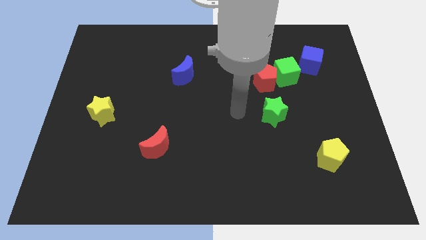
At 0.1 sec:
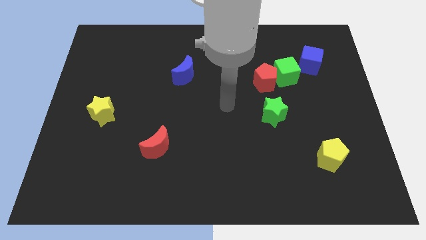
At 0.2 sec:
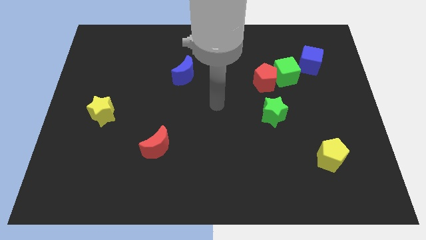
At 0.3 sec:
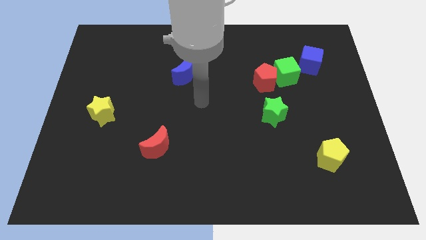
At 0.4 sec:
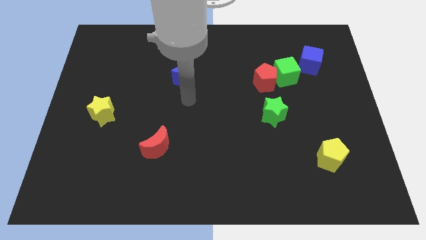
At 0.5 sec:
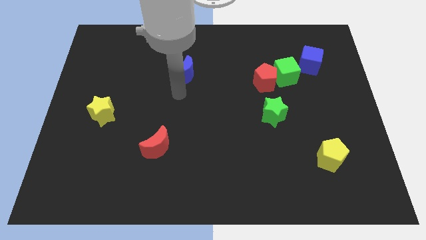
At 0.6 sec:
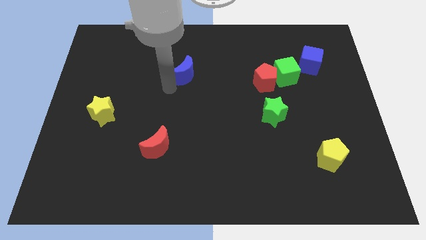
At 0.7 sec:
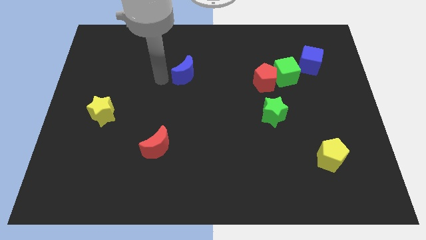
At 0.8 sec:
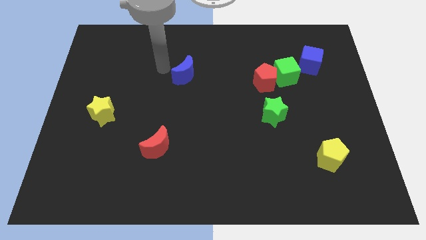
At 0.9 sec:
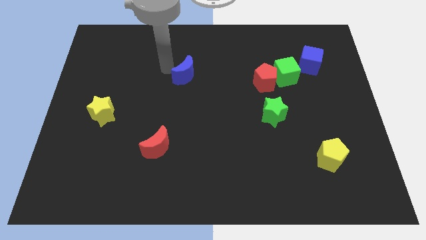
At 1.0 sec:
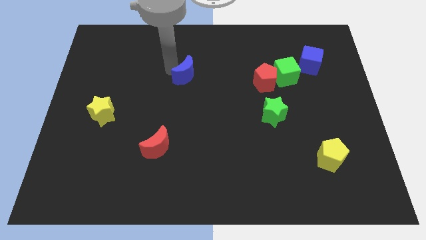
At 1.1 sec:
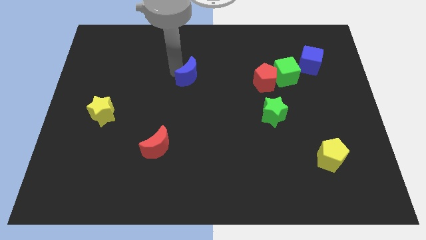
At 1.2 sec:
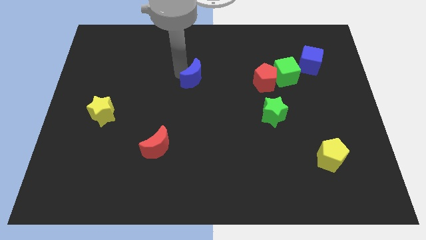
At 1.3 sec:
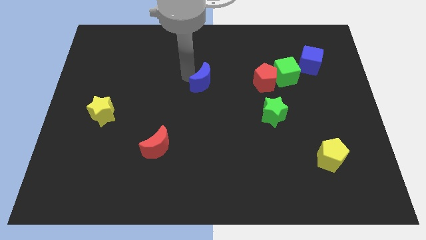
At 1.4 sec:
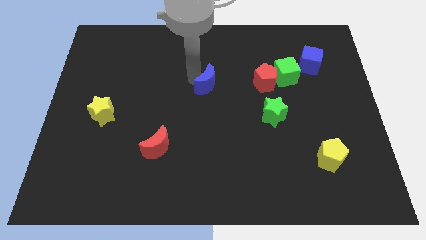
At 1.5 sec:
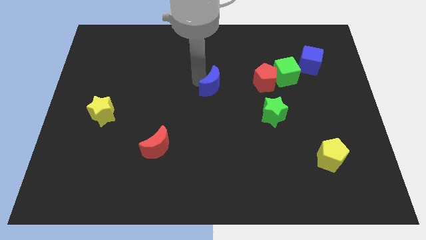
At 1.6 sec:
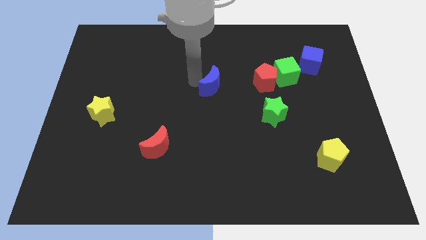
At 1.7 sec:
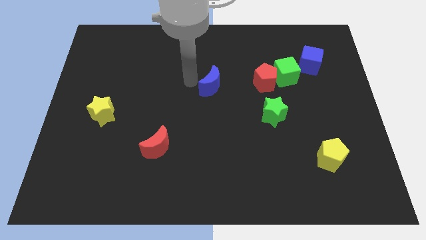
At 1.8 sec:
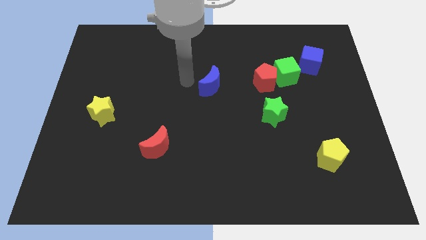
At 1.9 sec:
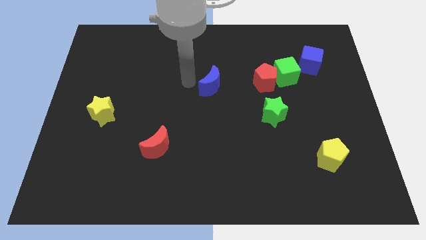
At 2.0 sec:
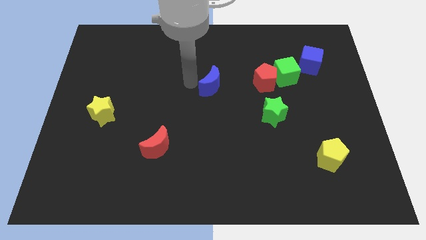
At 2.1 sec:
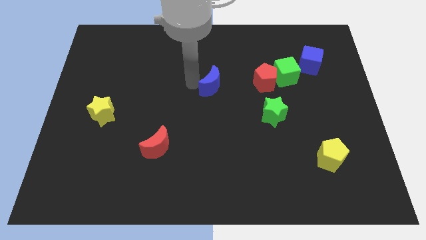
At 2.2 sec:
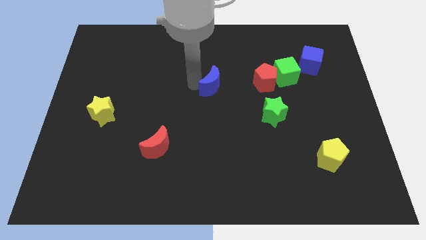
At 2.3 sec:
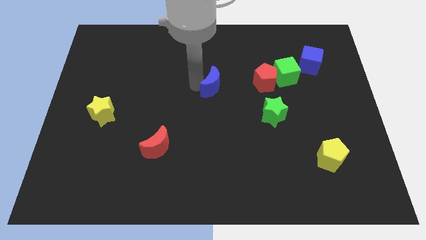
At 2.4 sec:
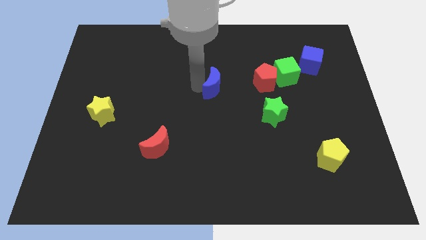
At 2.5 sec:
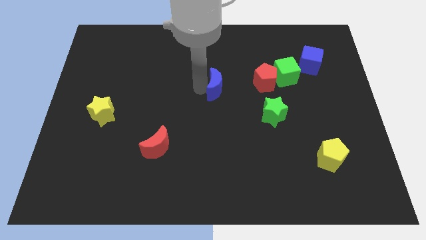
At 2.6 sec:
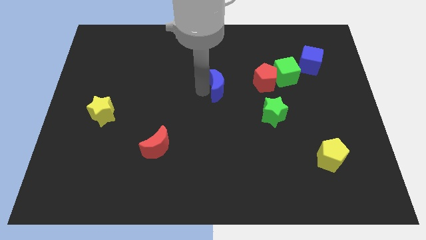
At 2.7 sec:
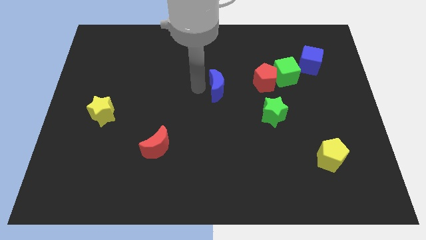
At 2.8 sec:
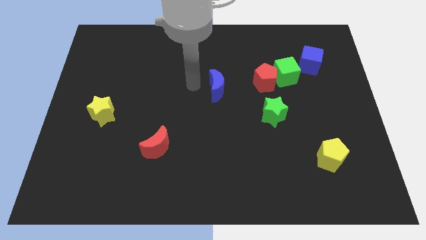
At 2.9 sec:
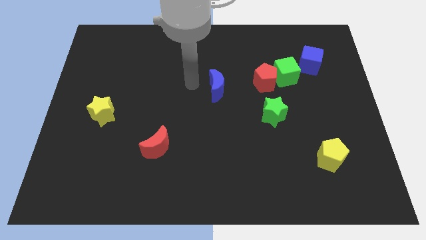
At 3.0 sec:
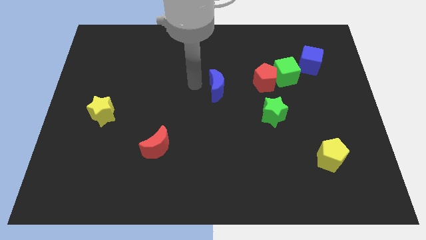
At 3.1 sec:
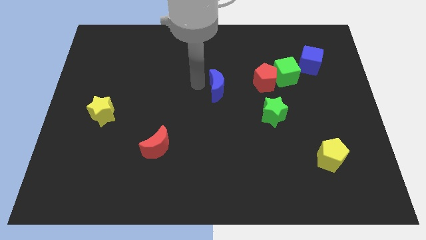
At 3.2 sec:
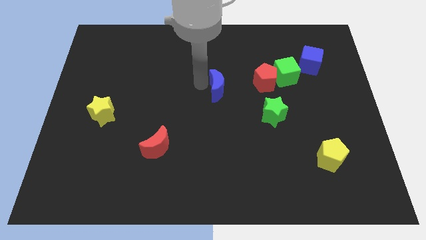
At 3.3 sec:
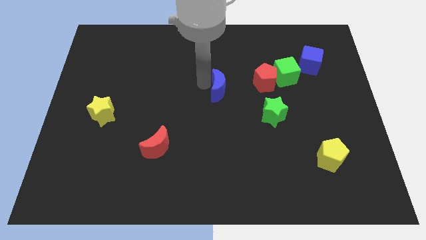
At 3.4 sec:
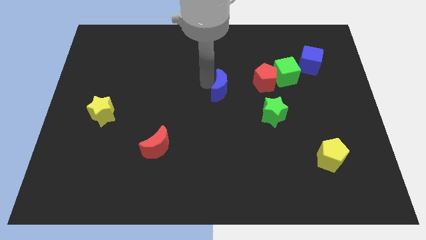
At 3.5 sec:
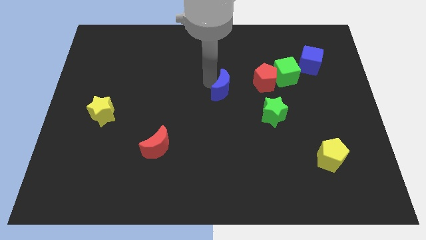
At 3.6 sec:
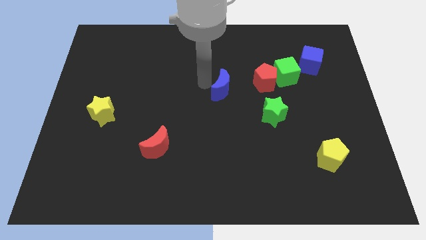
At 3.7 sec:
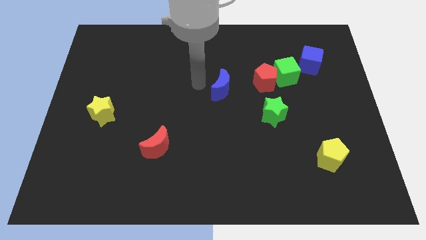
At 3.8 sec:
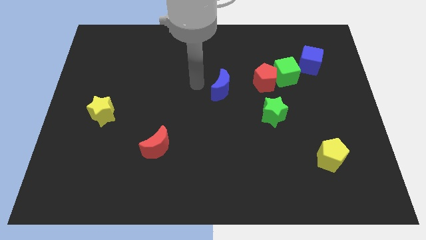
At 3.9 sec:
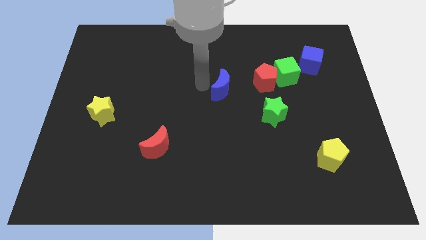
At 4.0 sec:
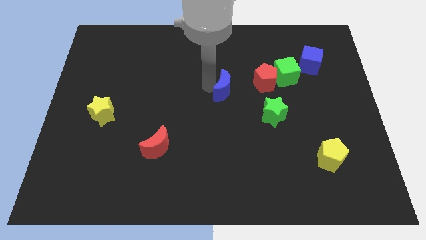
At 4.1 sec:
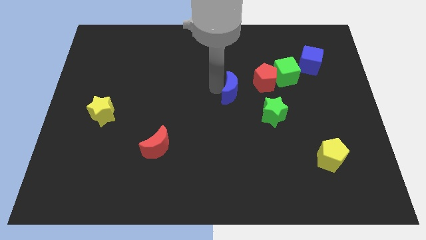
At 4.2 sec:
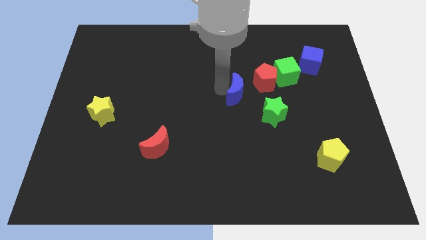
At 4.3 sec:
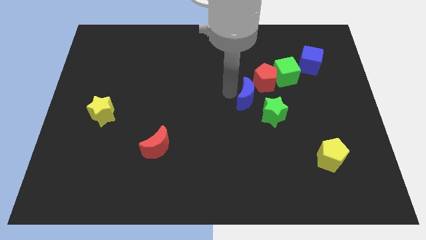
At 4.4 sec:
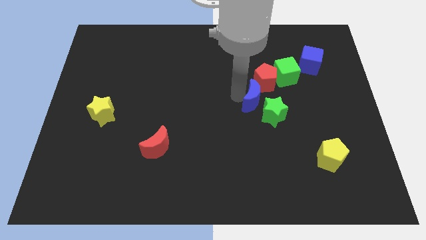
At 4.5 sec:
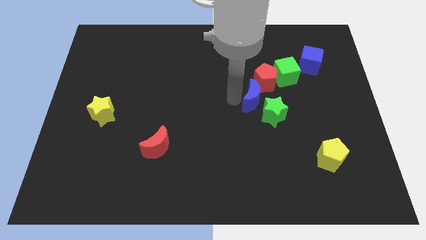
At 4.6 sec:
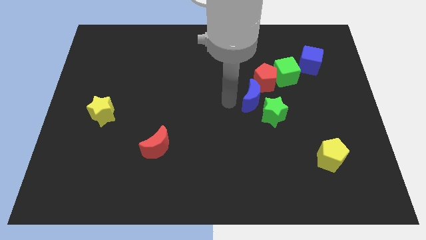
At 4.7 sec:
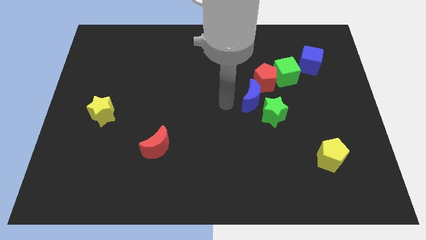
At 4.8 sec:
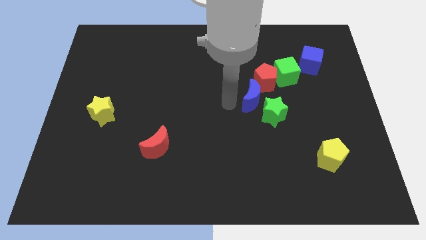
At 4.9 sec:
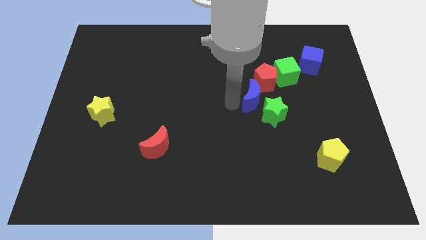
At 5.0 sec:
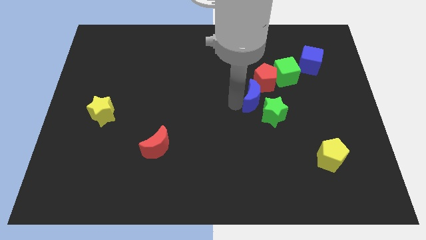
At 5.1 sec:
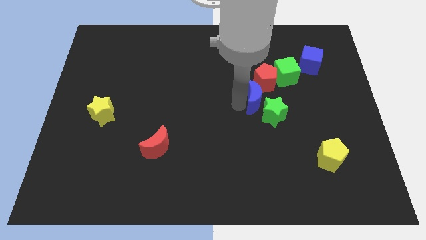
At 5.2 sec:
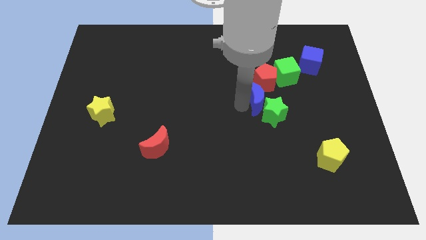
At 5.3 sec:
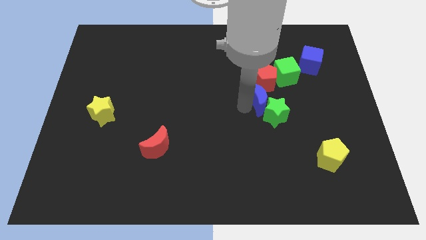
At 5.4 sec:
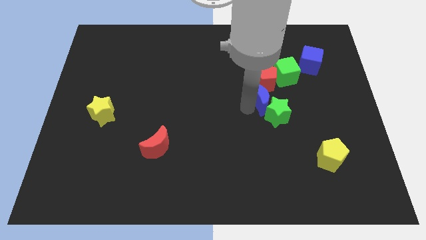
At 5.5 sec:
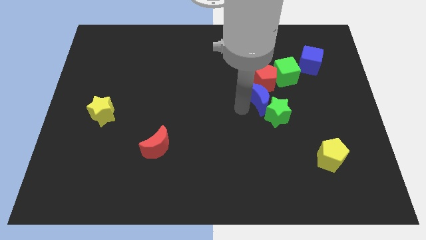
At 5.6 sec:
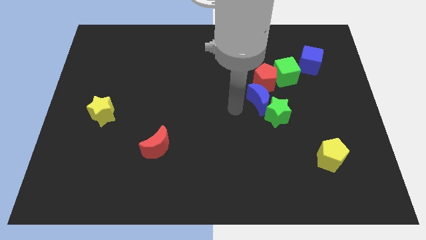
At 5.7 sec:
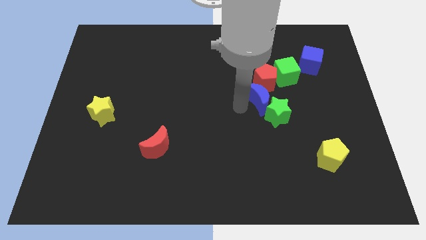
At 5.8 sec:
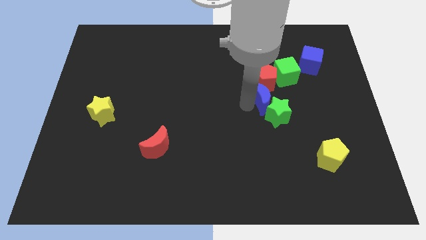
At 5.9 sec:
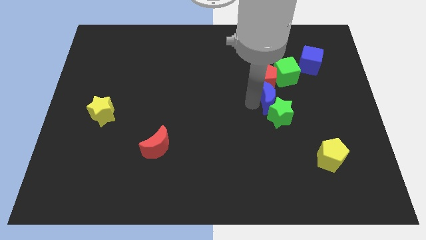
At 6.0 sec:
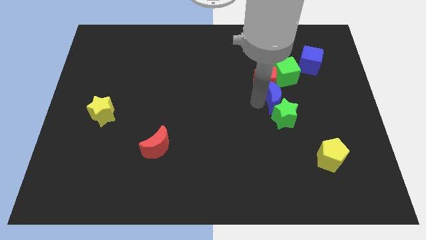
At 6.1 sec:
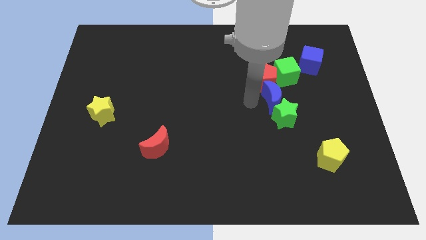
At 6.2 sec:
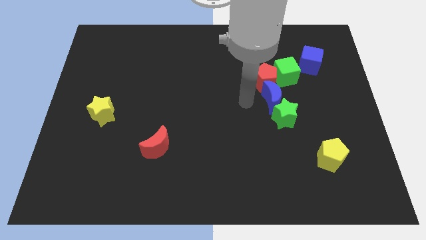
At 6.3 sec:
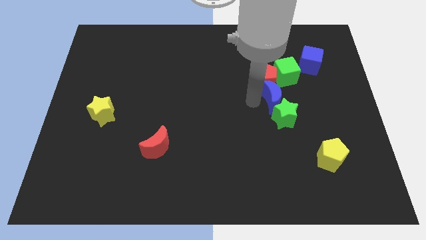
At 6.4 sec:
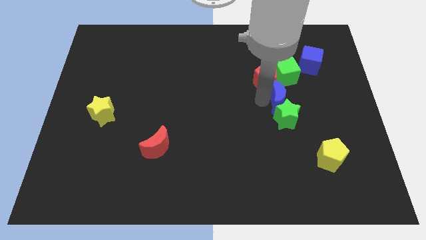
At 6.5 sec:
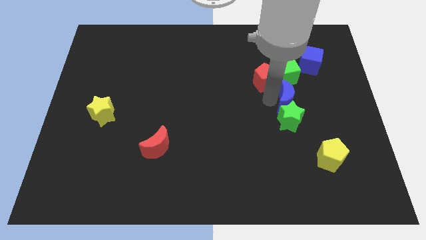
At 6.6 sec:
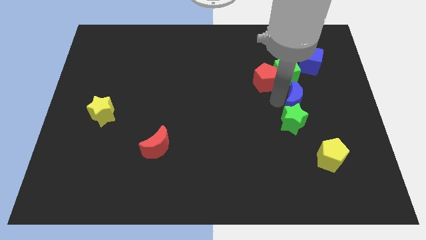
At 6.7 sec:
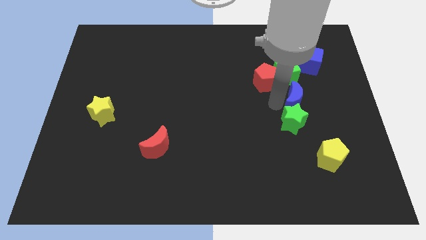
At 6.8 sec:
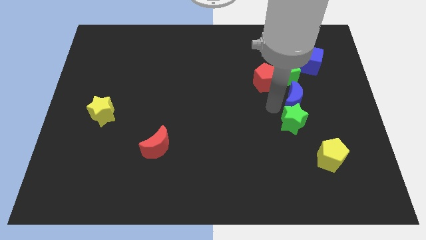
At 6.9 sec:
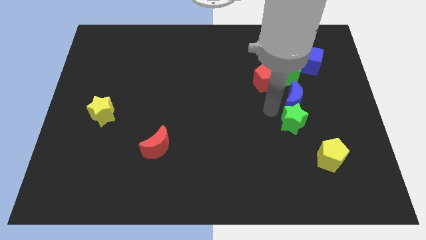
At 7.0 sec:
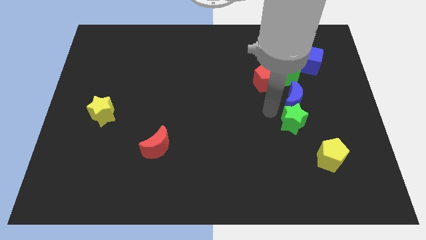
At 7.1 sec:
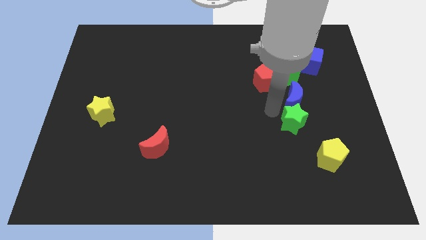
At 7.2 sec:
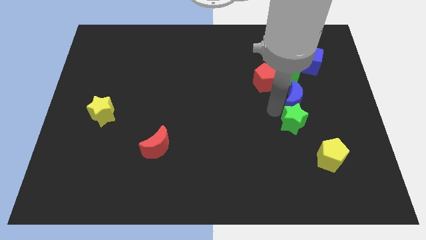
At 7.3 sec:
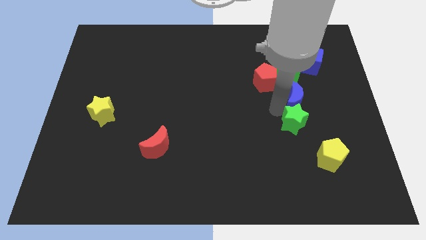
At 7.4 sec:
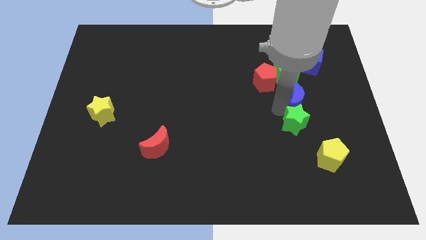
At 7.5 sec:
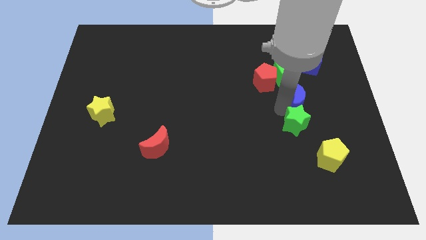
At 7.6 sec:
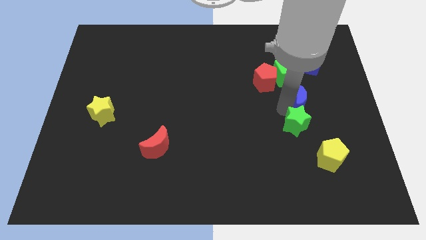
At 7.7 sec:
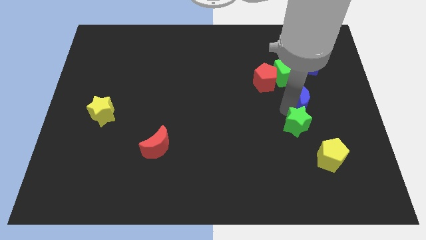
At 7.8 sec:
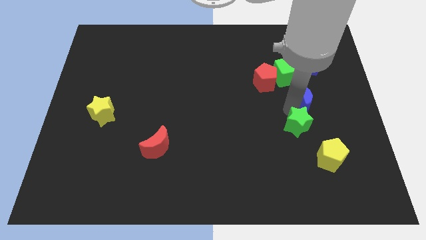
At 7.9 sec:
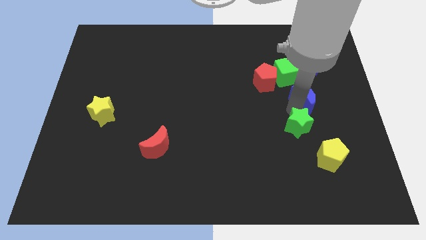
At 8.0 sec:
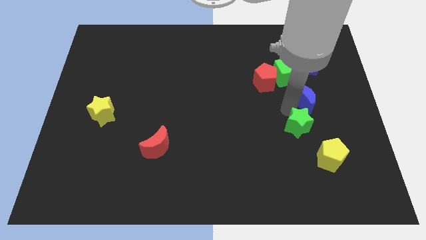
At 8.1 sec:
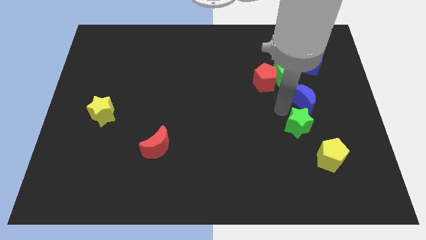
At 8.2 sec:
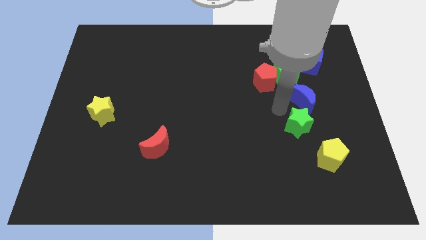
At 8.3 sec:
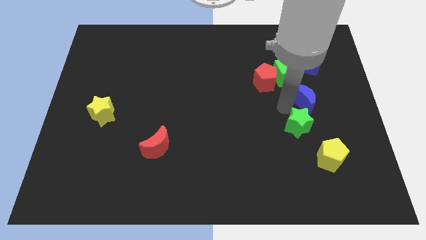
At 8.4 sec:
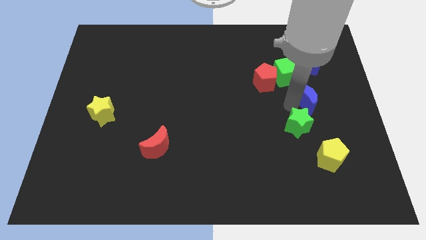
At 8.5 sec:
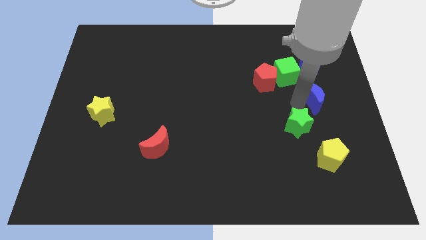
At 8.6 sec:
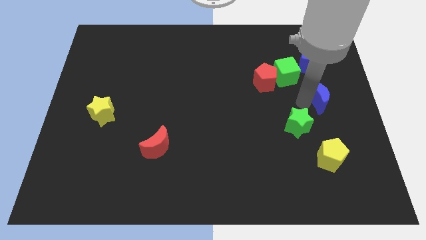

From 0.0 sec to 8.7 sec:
put the blue moon to the center right
